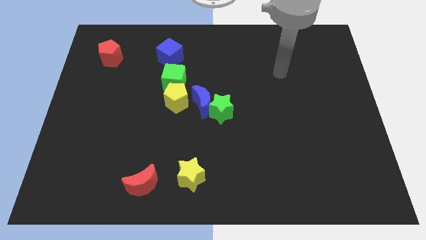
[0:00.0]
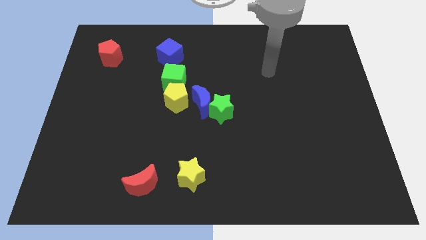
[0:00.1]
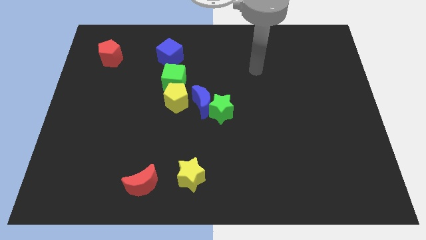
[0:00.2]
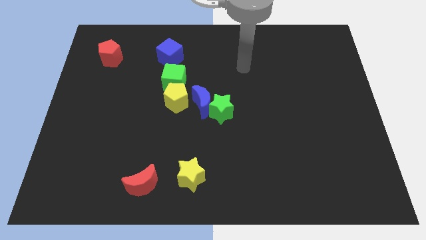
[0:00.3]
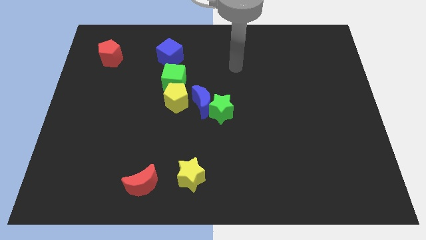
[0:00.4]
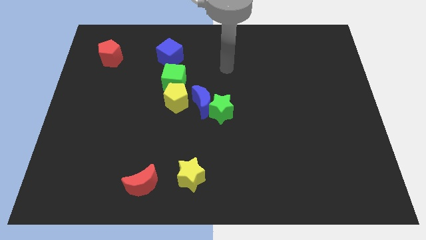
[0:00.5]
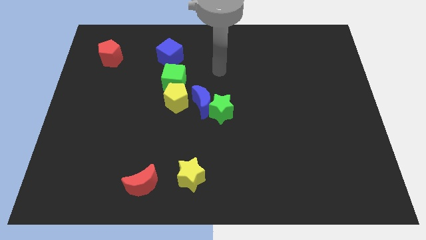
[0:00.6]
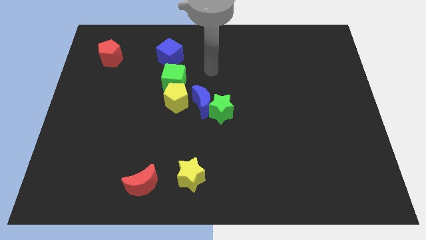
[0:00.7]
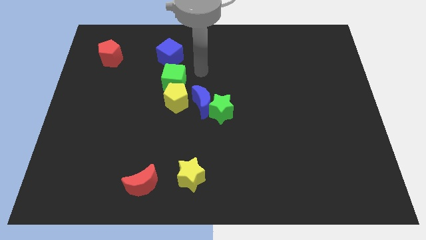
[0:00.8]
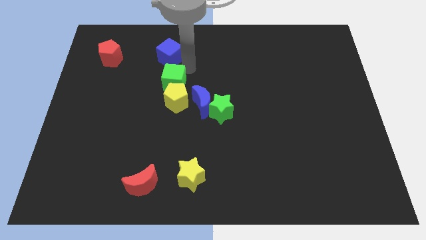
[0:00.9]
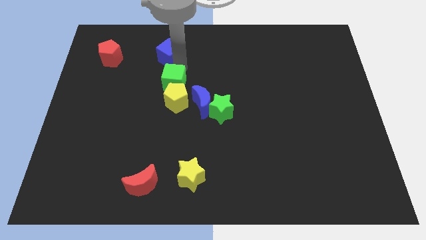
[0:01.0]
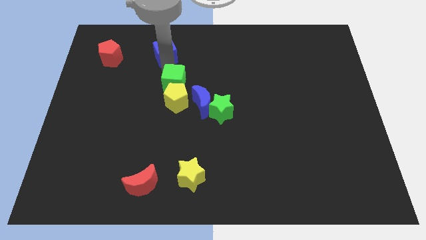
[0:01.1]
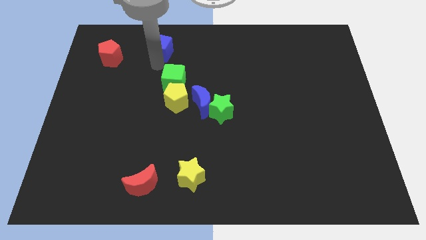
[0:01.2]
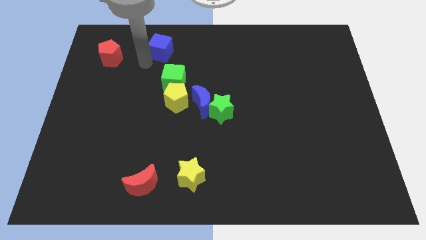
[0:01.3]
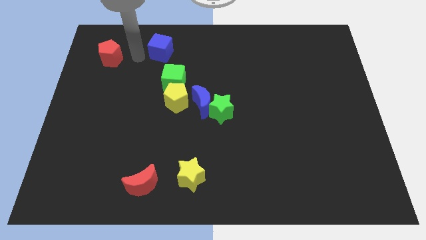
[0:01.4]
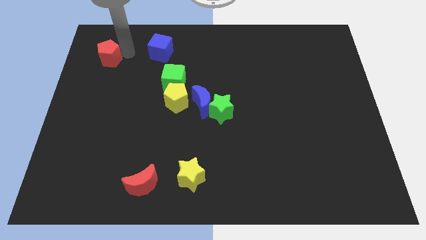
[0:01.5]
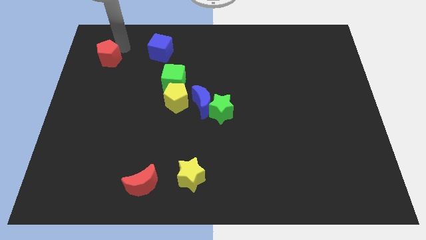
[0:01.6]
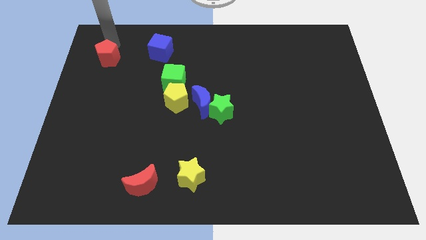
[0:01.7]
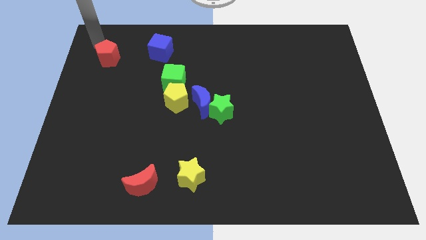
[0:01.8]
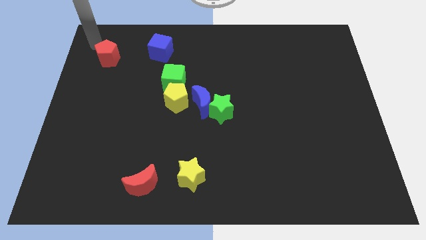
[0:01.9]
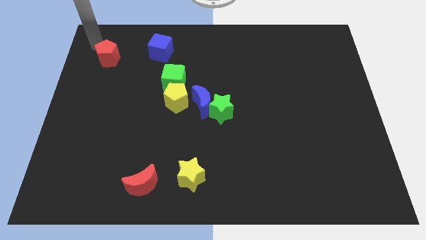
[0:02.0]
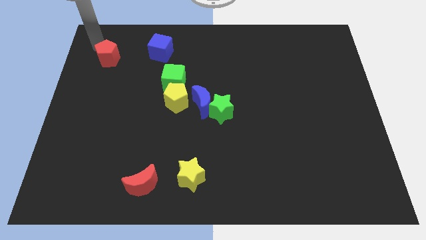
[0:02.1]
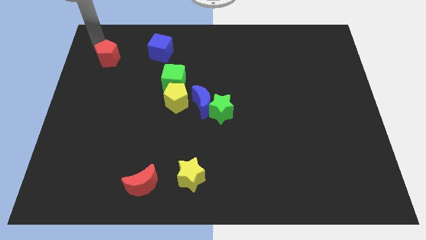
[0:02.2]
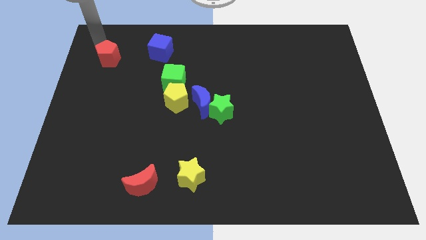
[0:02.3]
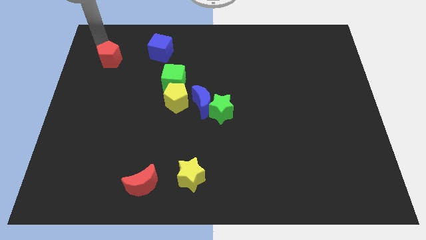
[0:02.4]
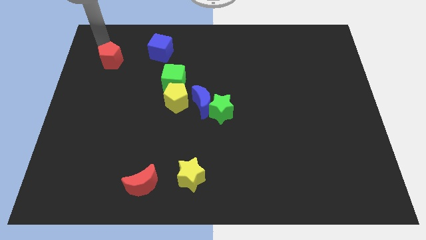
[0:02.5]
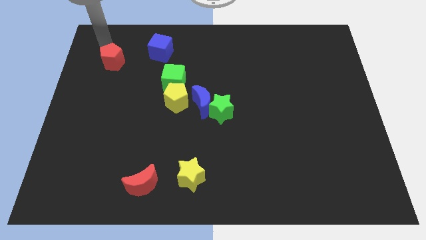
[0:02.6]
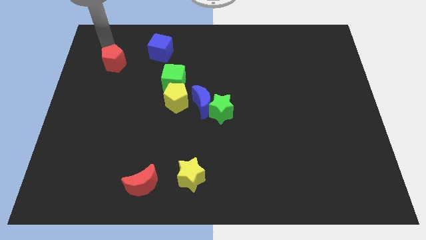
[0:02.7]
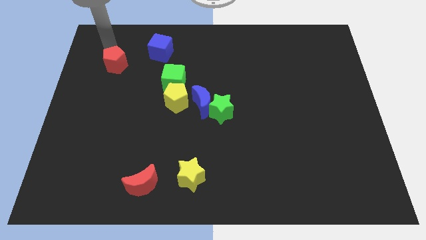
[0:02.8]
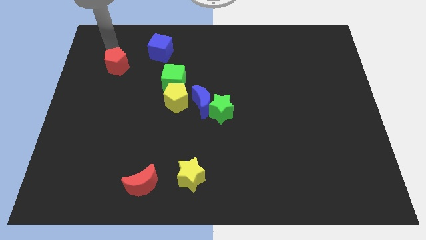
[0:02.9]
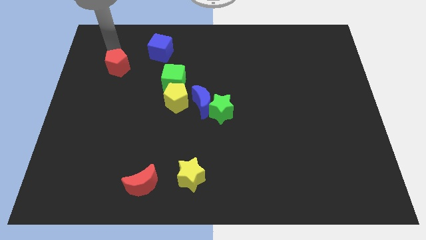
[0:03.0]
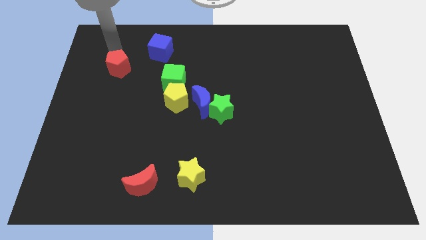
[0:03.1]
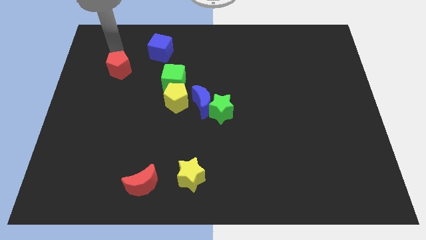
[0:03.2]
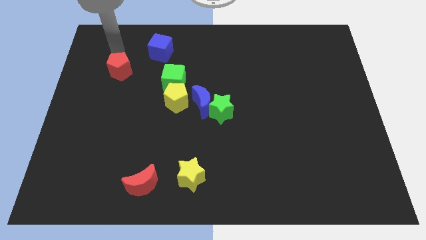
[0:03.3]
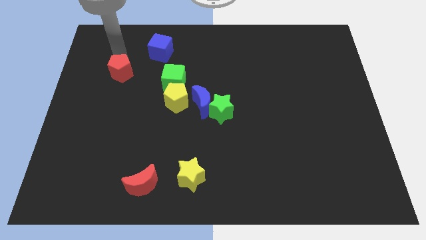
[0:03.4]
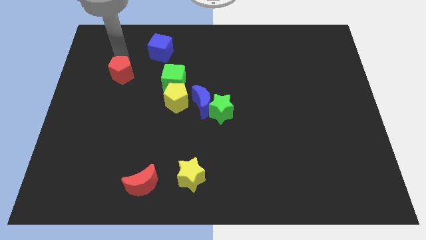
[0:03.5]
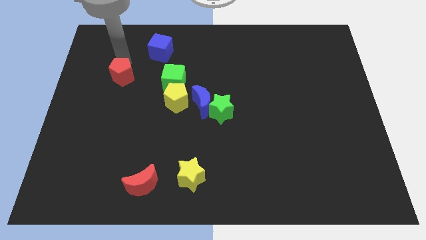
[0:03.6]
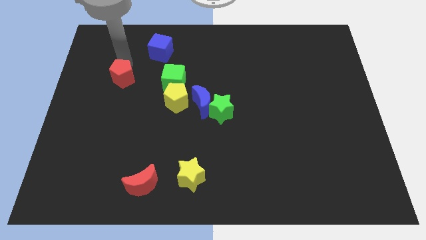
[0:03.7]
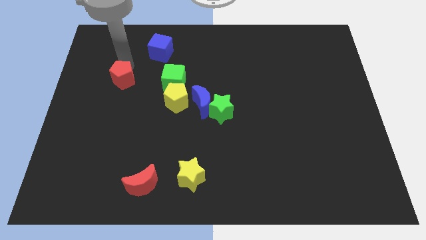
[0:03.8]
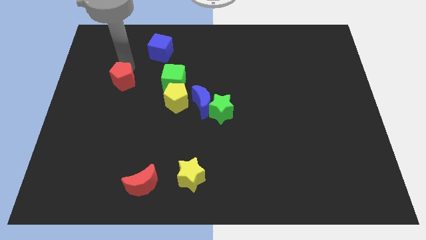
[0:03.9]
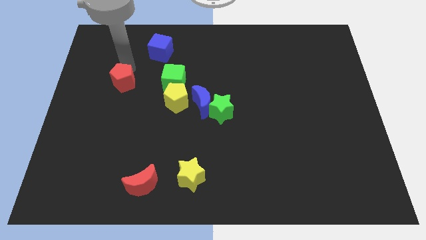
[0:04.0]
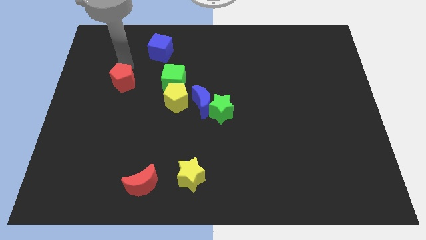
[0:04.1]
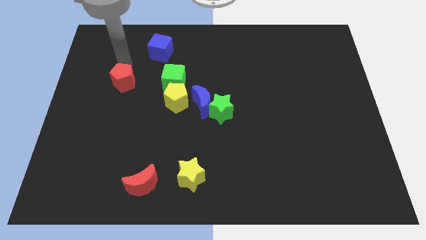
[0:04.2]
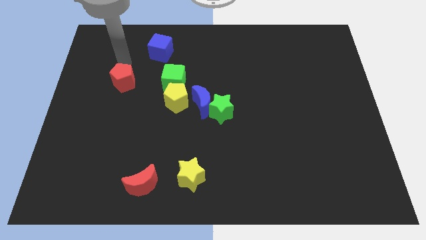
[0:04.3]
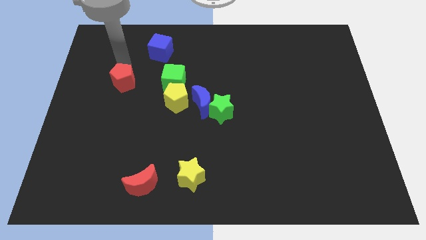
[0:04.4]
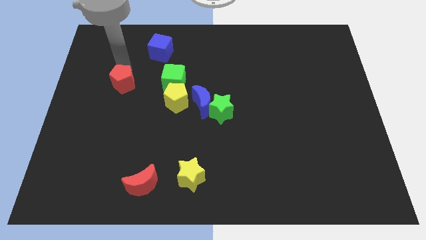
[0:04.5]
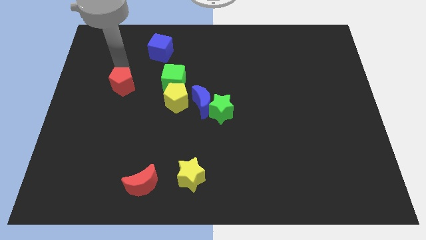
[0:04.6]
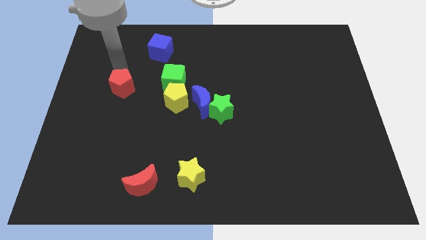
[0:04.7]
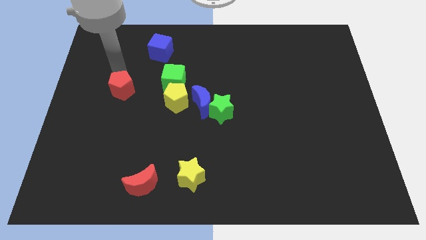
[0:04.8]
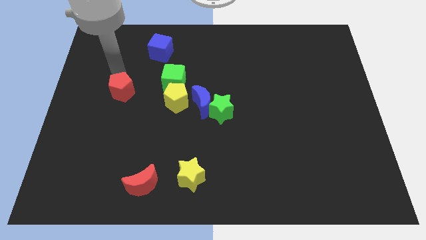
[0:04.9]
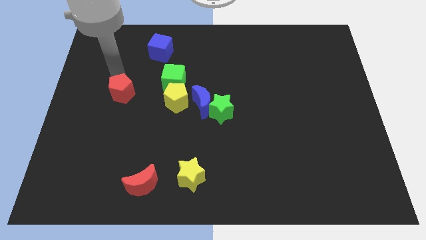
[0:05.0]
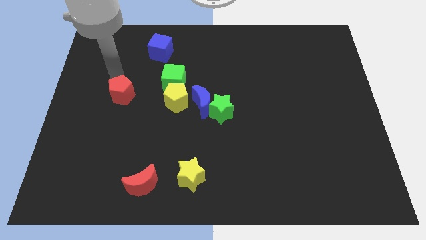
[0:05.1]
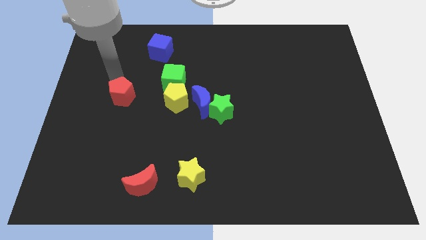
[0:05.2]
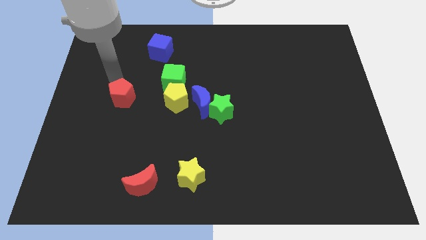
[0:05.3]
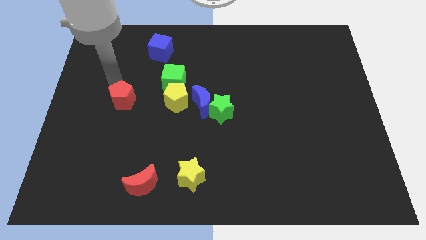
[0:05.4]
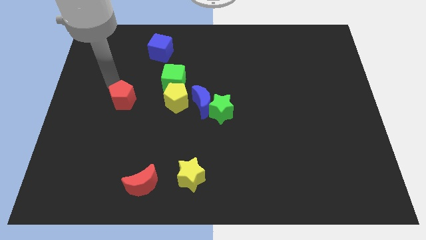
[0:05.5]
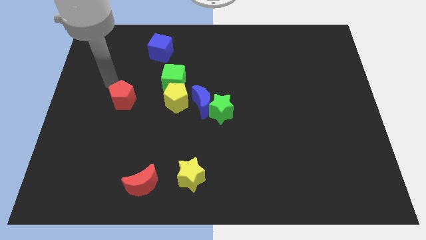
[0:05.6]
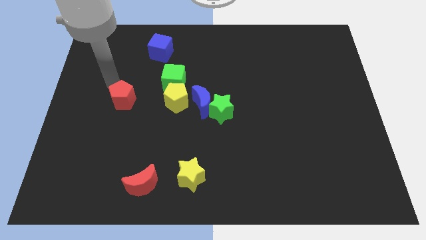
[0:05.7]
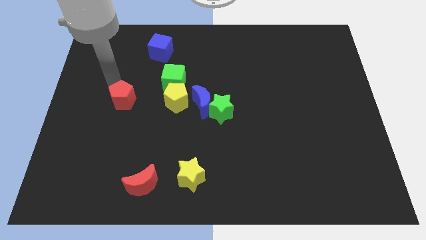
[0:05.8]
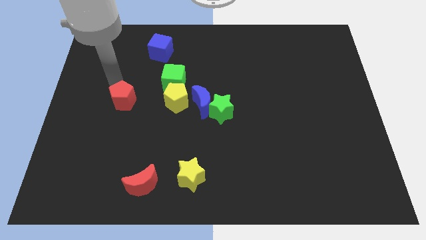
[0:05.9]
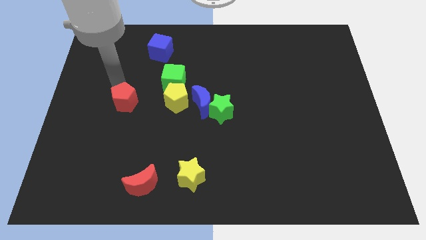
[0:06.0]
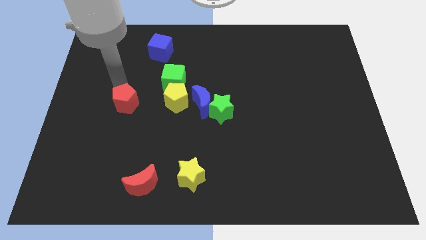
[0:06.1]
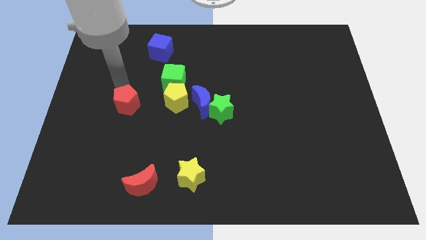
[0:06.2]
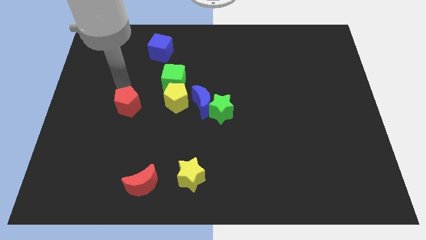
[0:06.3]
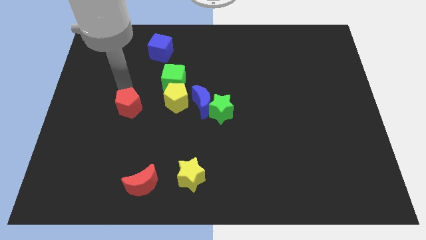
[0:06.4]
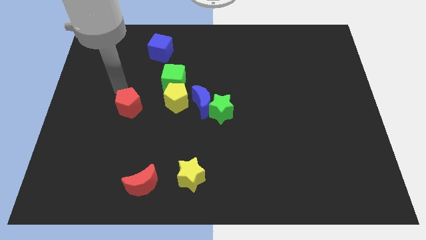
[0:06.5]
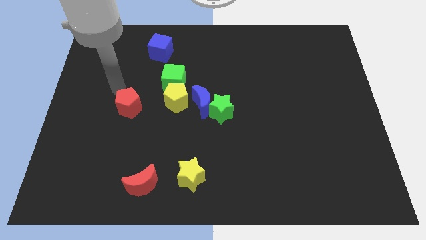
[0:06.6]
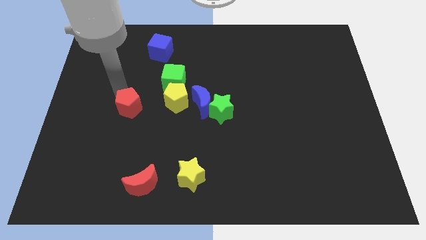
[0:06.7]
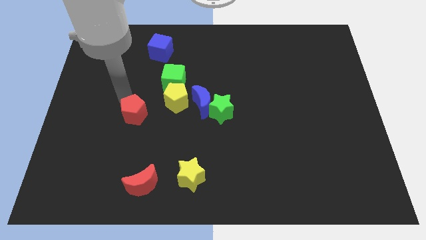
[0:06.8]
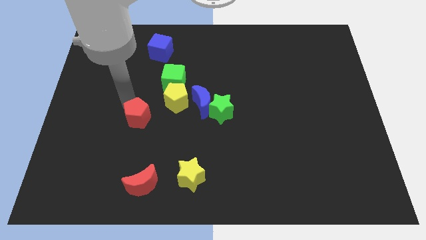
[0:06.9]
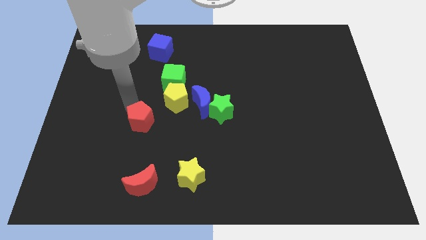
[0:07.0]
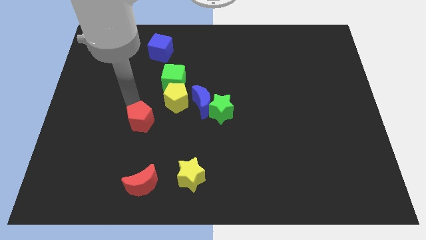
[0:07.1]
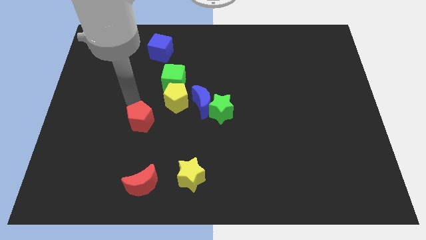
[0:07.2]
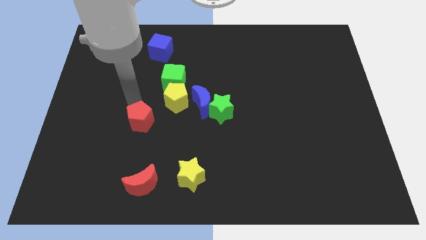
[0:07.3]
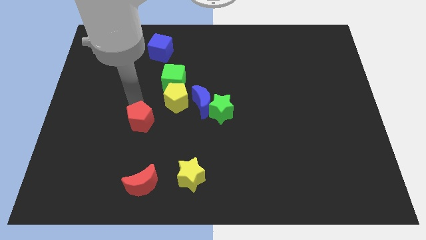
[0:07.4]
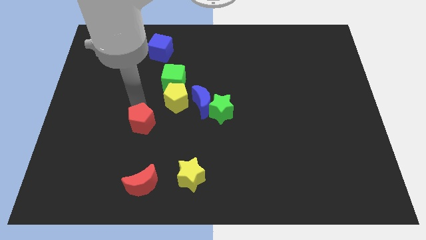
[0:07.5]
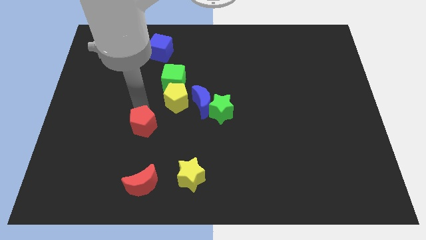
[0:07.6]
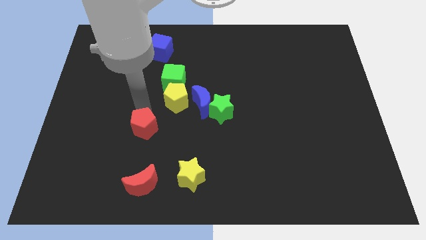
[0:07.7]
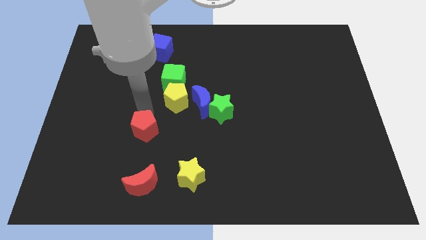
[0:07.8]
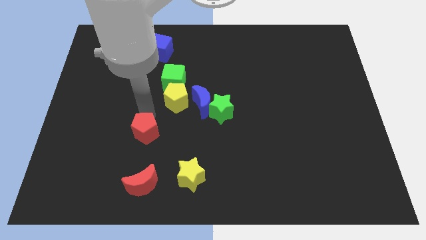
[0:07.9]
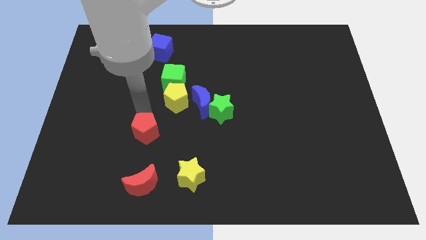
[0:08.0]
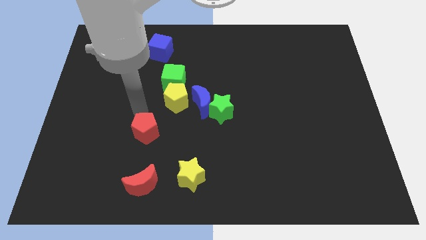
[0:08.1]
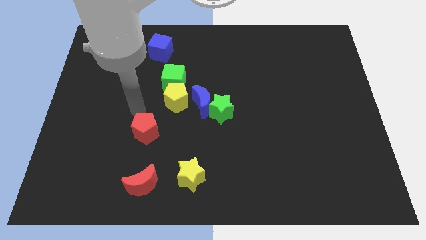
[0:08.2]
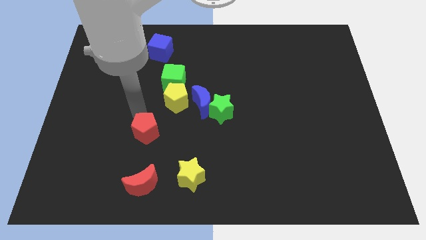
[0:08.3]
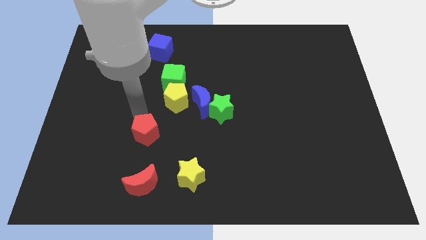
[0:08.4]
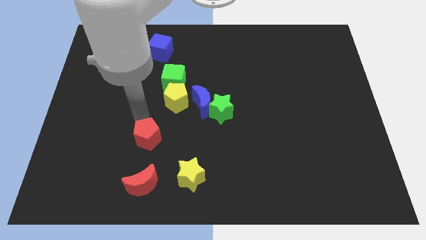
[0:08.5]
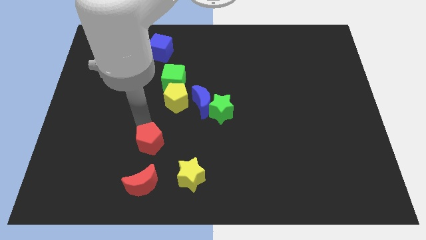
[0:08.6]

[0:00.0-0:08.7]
push the red pentagon diagonally up and to the left of the yellow star
